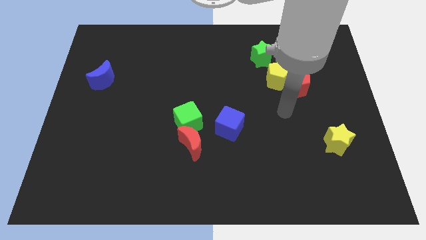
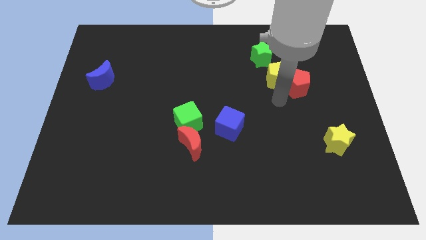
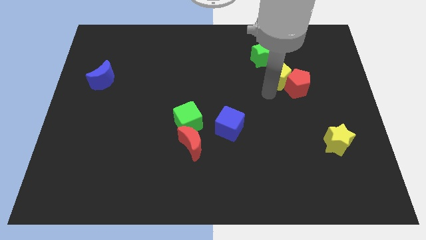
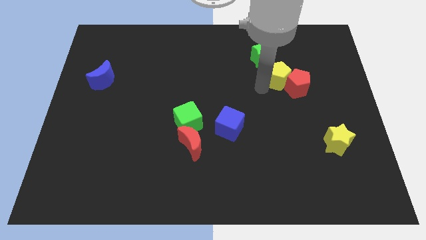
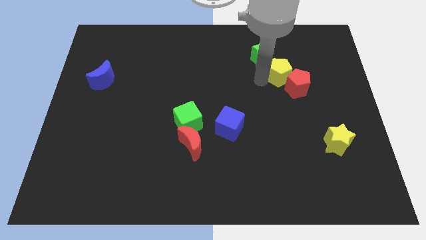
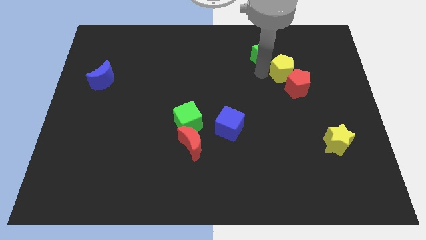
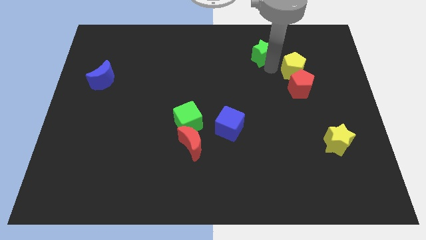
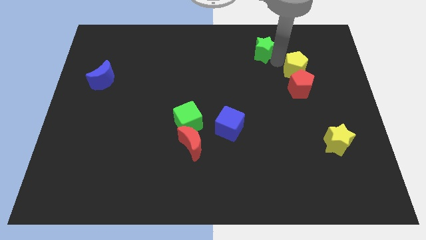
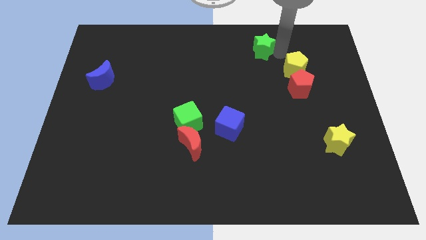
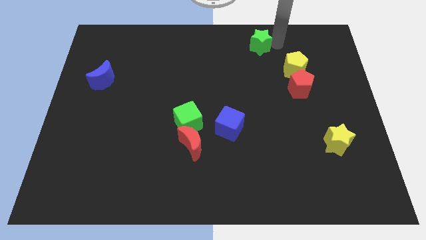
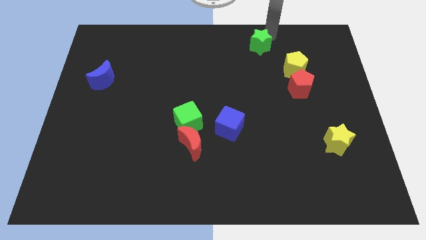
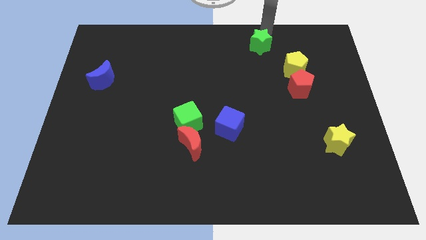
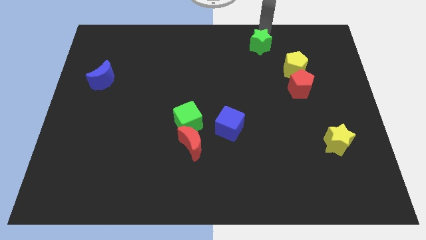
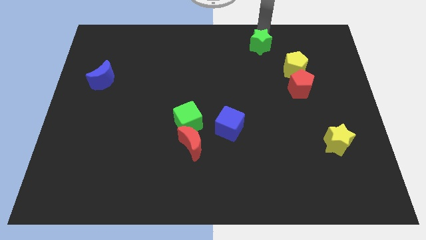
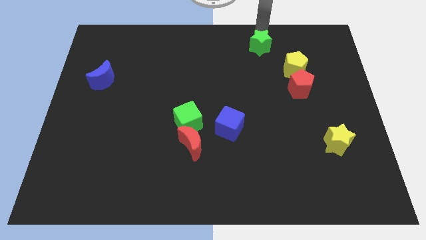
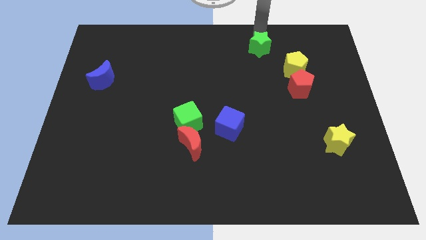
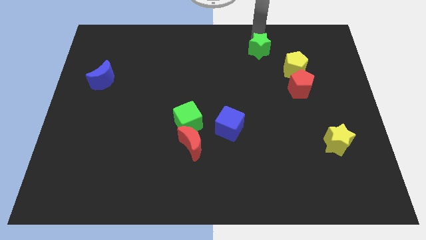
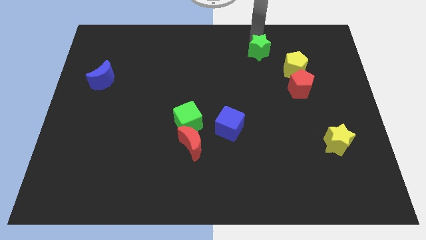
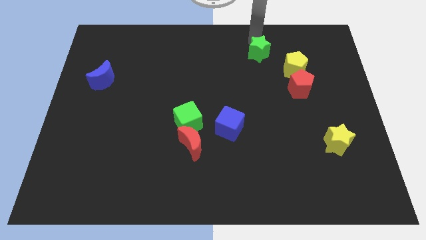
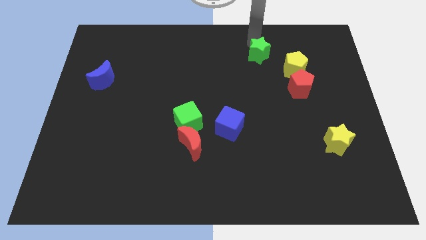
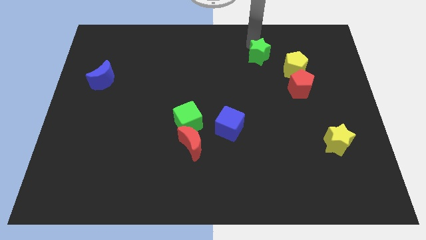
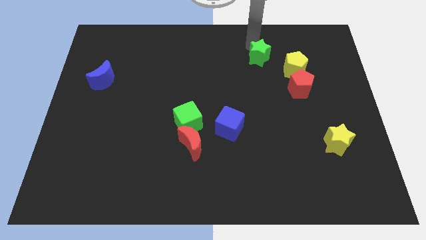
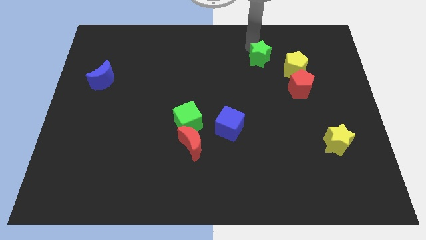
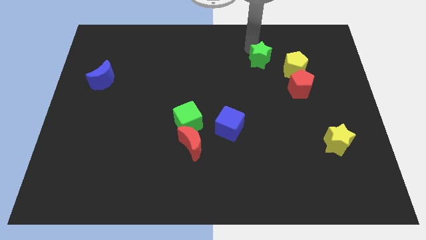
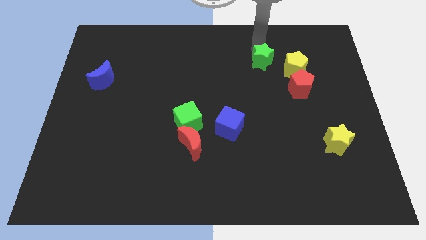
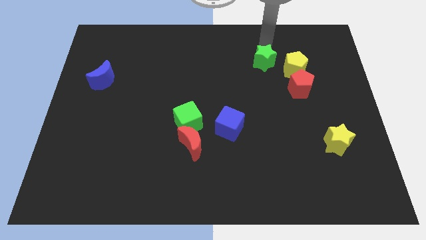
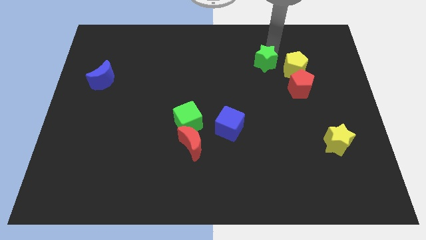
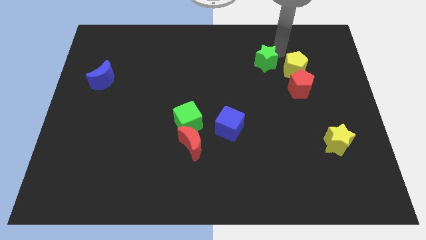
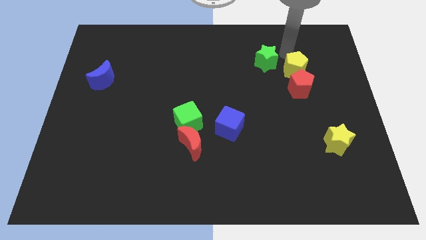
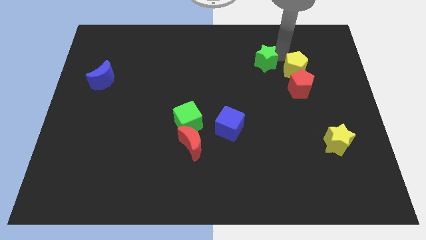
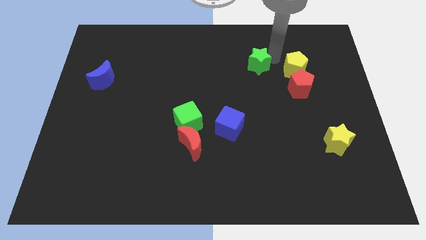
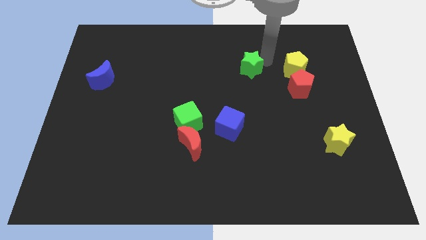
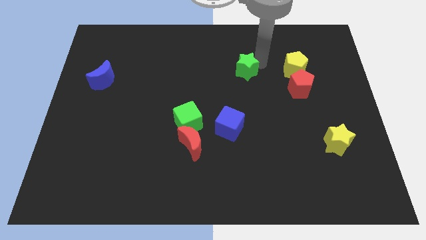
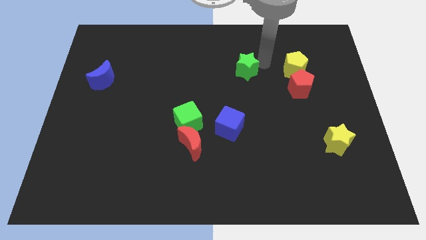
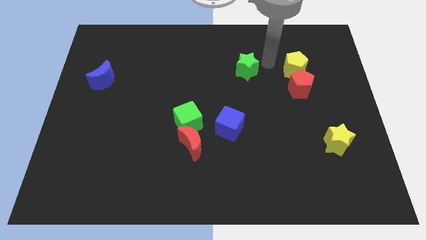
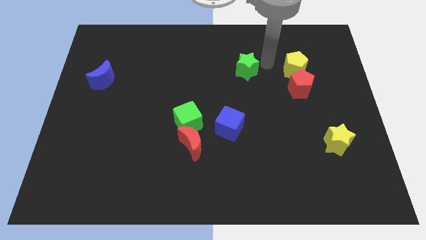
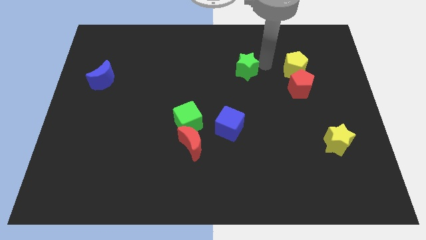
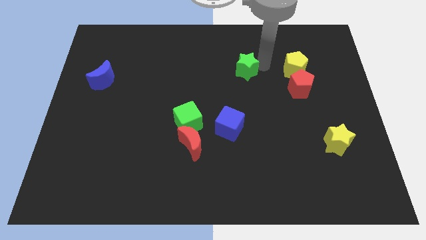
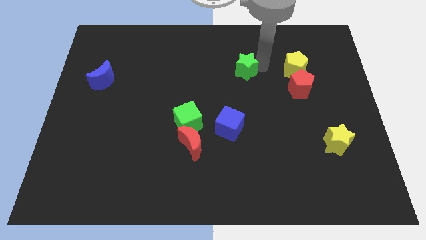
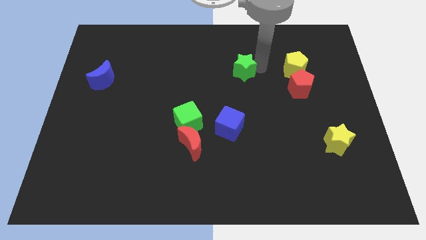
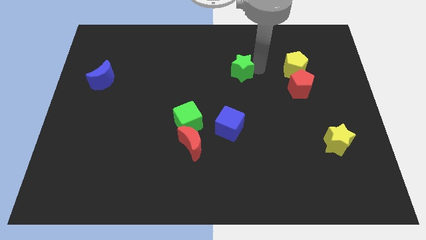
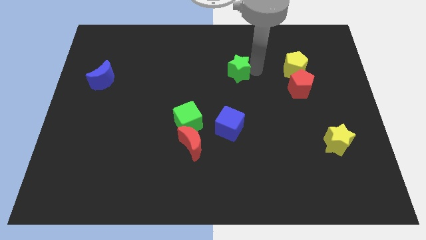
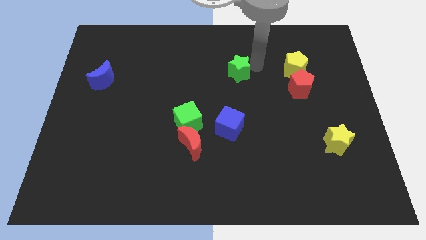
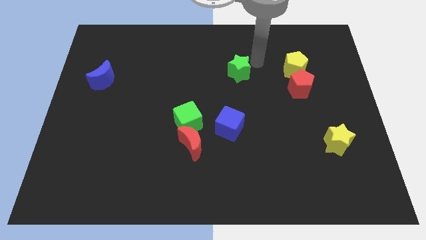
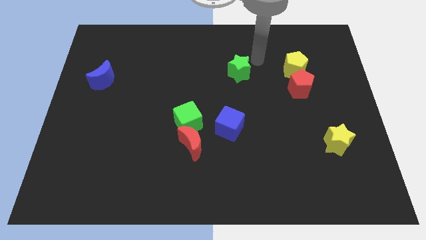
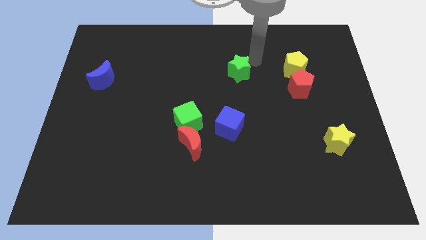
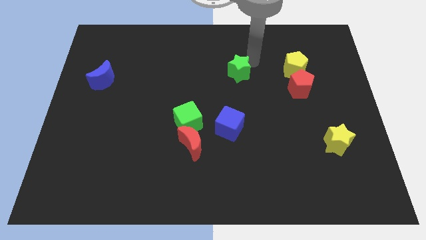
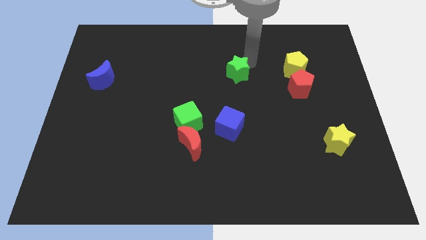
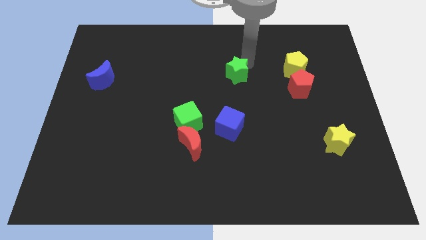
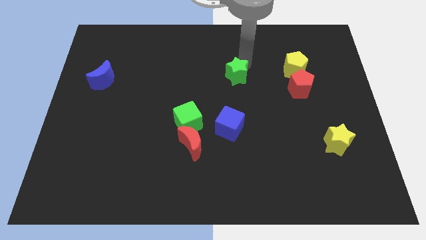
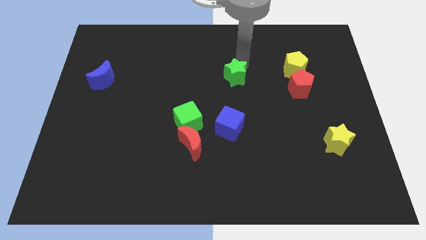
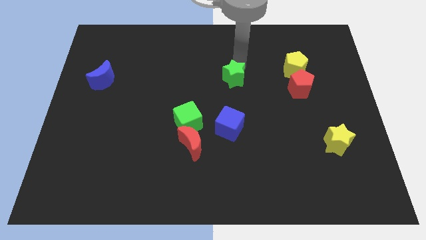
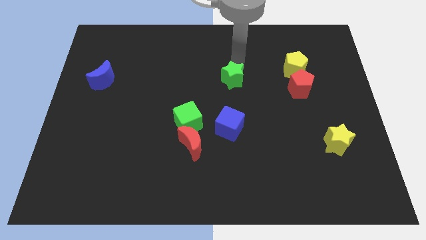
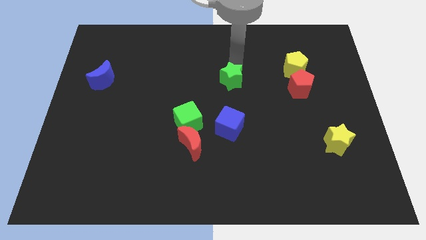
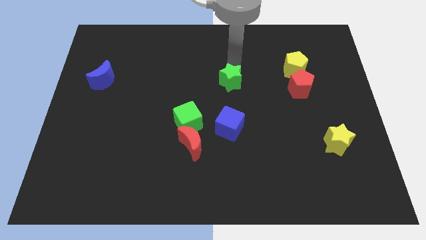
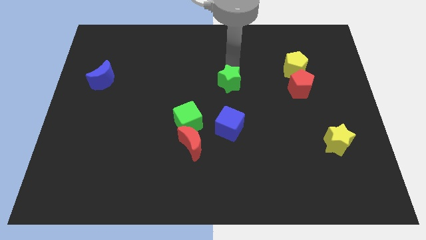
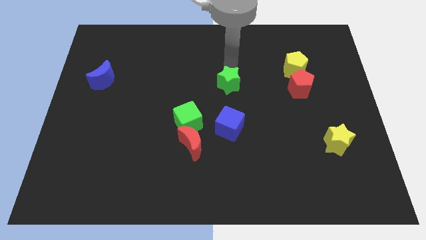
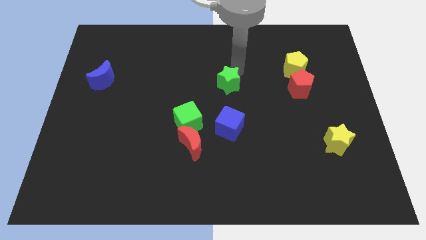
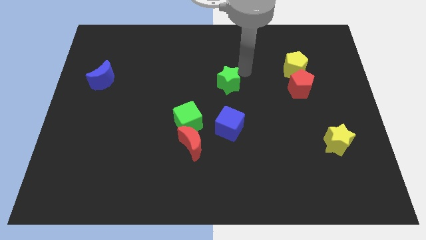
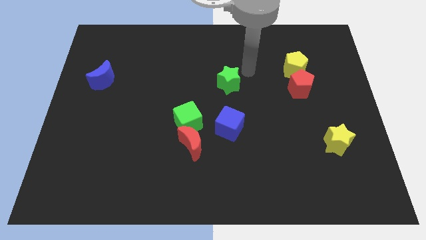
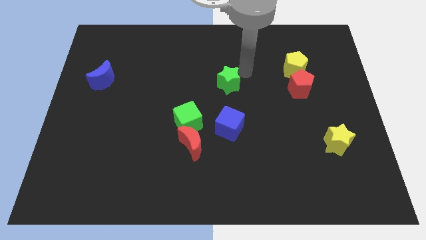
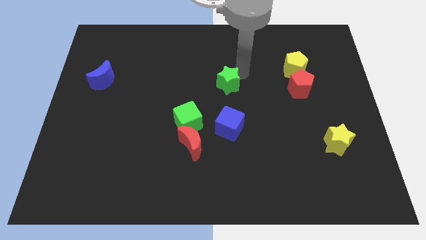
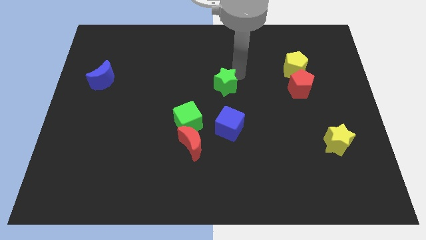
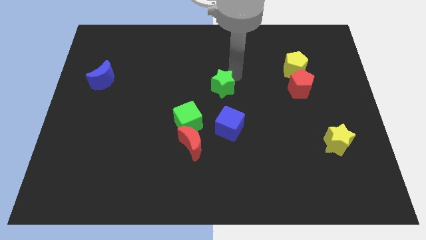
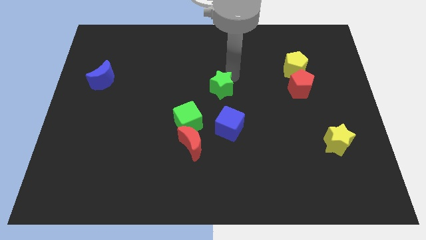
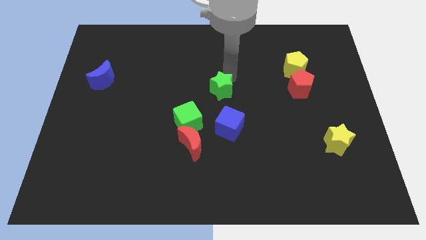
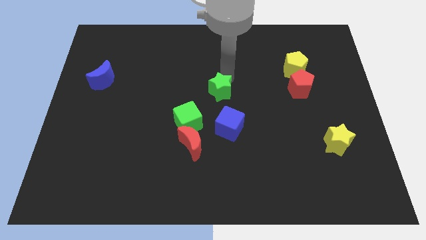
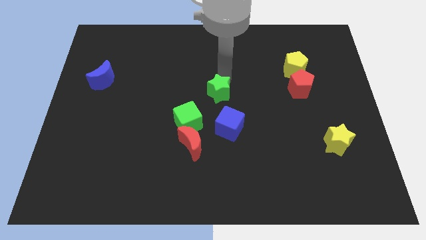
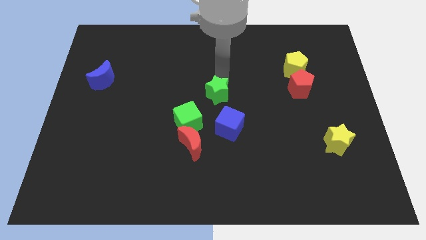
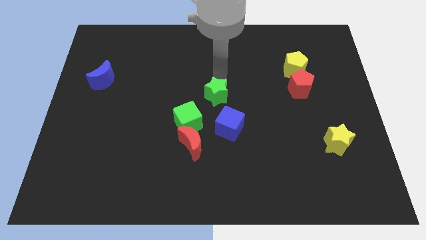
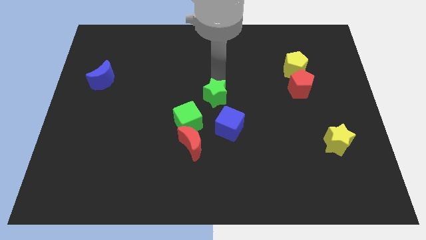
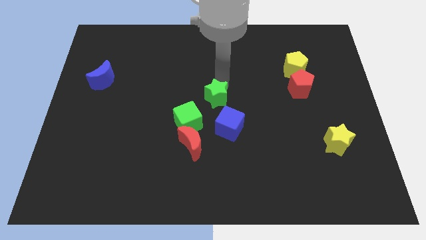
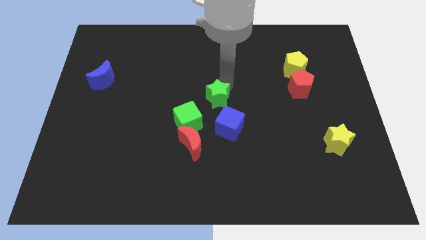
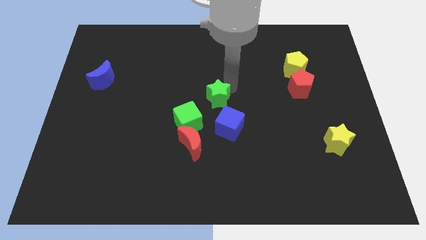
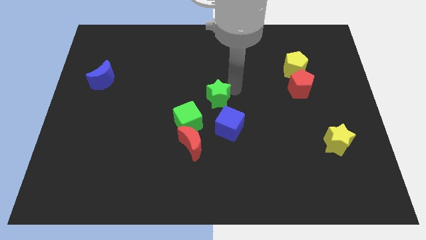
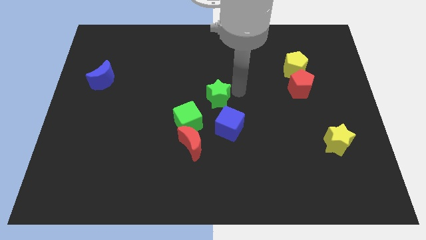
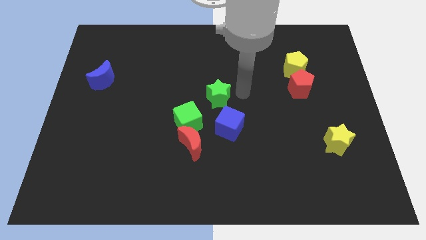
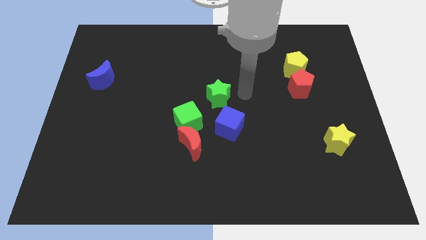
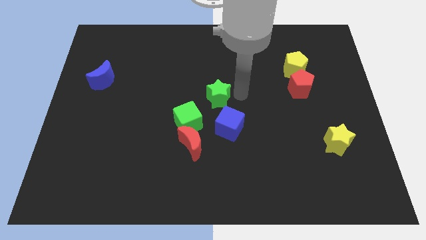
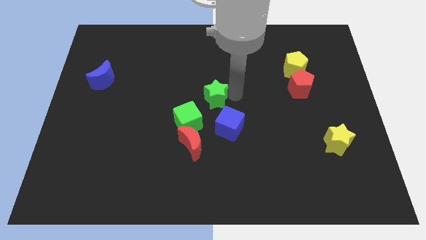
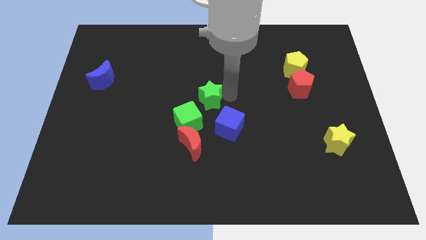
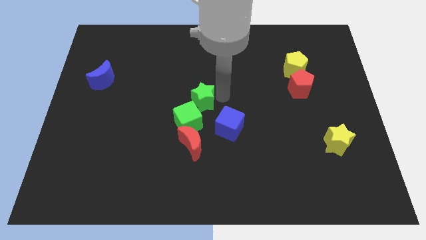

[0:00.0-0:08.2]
push the green star downwards and left diagonally

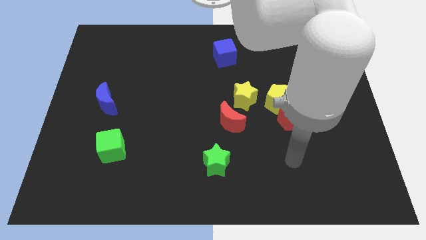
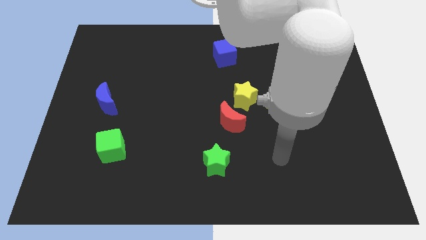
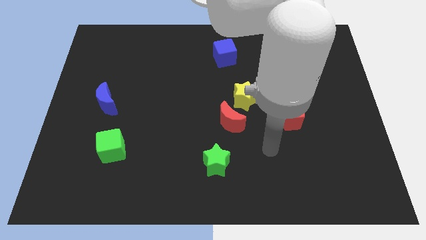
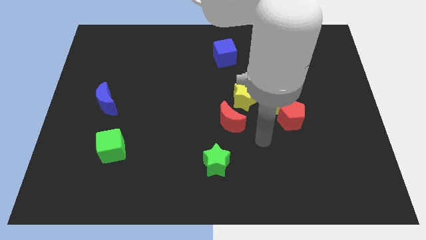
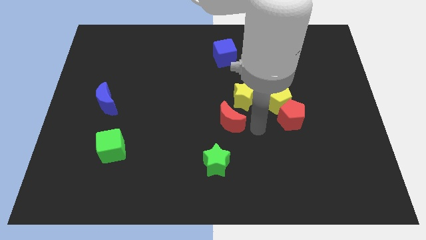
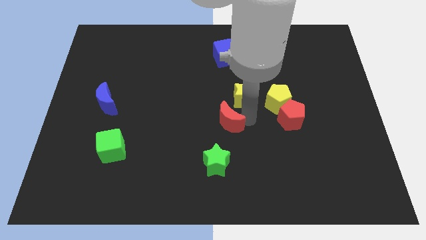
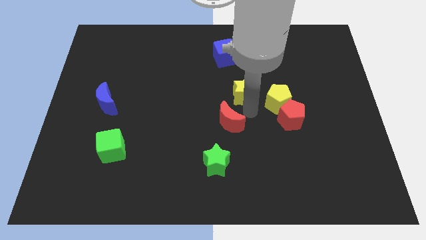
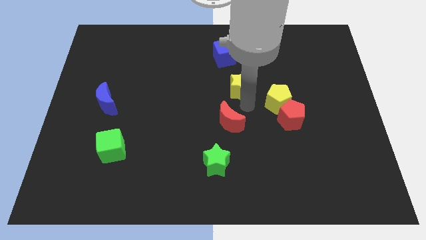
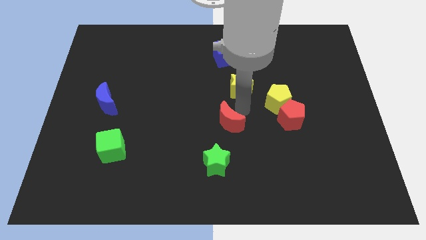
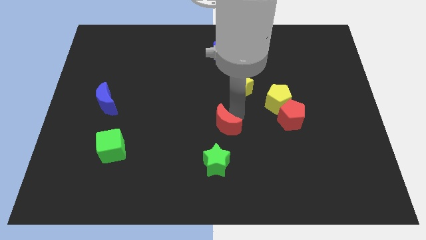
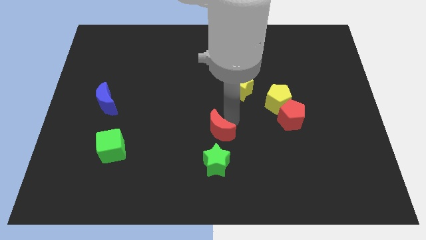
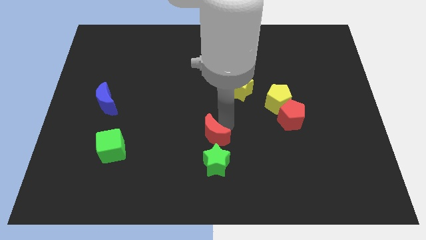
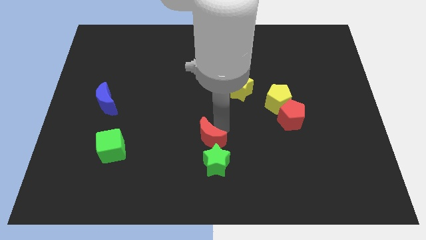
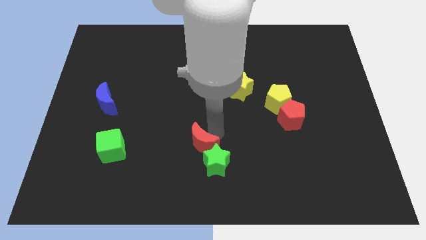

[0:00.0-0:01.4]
slightly slide the red moon diagonally down and left
